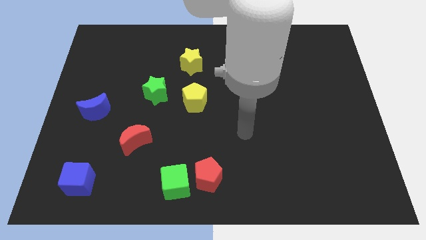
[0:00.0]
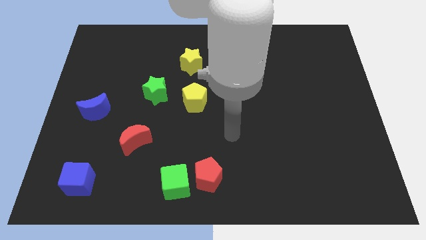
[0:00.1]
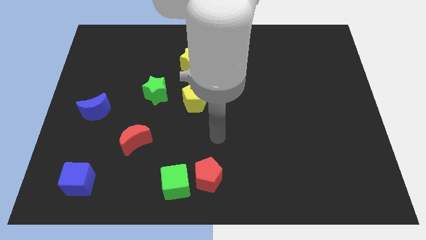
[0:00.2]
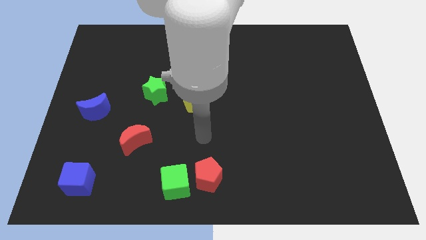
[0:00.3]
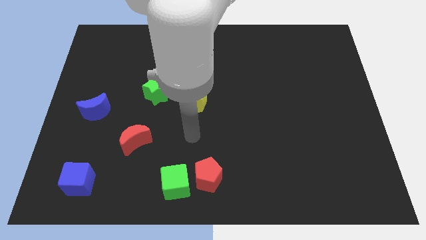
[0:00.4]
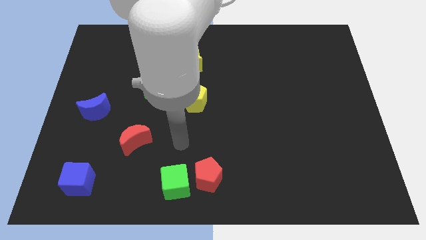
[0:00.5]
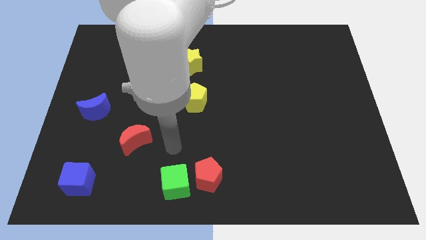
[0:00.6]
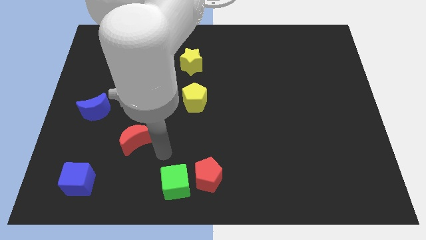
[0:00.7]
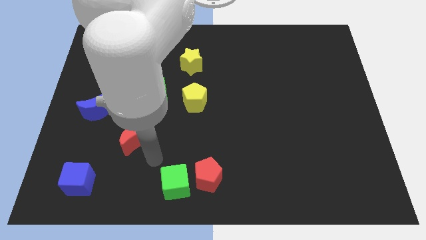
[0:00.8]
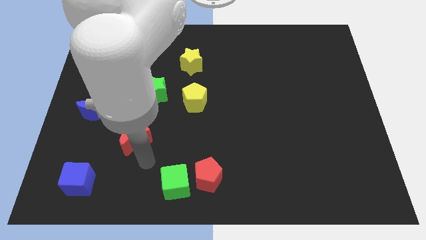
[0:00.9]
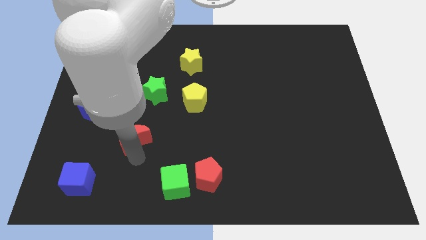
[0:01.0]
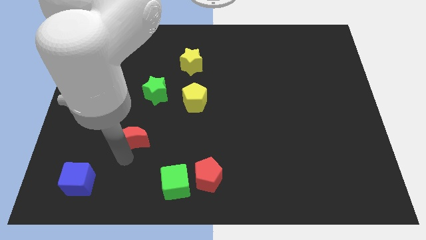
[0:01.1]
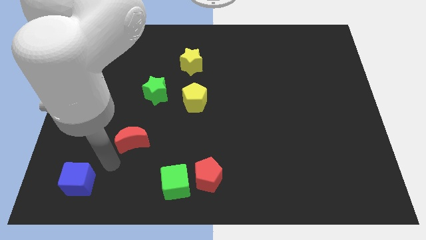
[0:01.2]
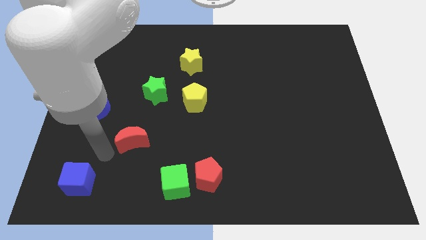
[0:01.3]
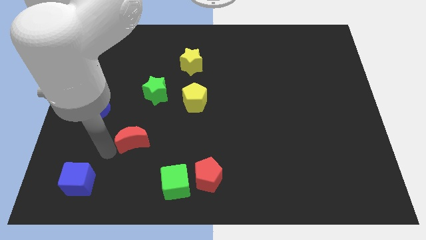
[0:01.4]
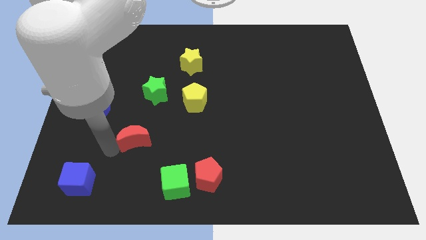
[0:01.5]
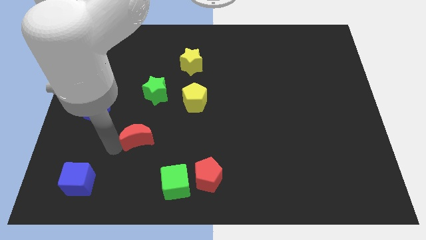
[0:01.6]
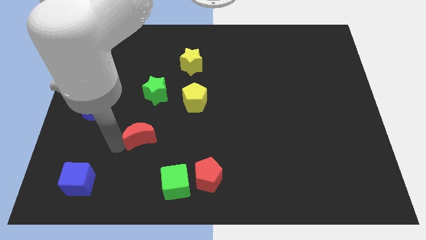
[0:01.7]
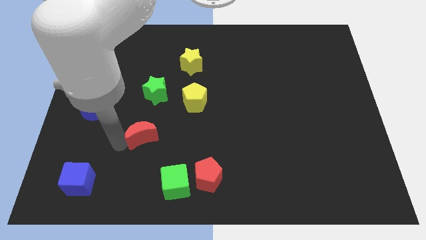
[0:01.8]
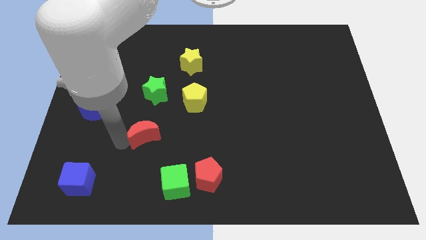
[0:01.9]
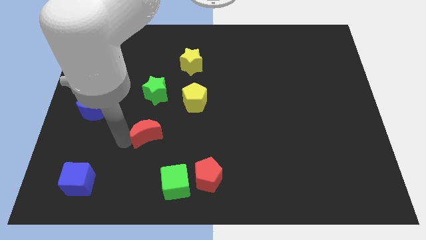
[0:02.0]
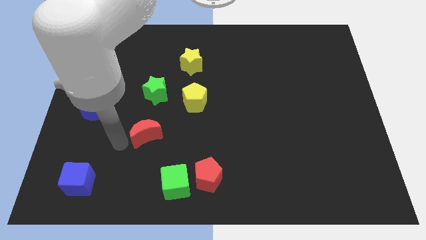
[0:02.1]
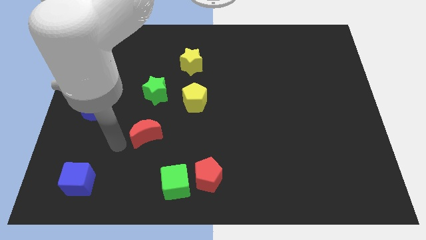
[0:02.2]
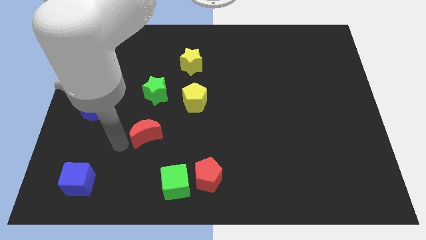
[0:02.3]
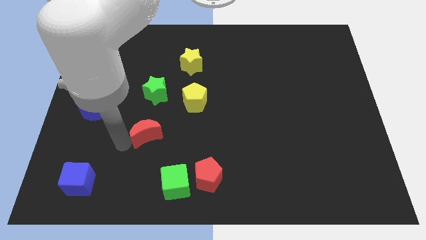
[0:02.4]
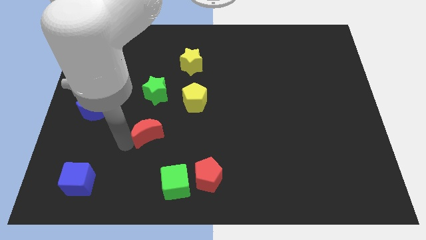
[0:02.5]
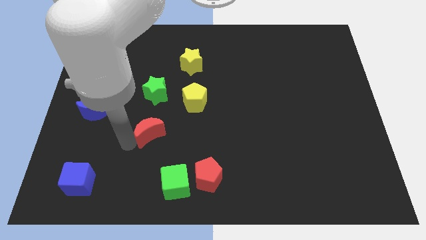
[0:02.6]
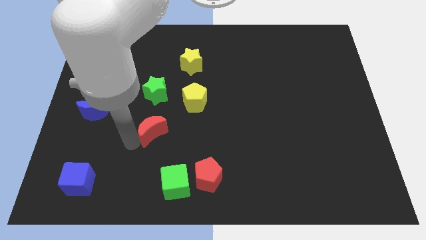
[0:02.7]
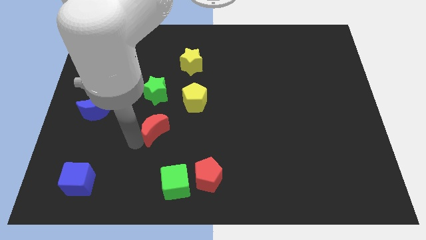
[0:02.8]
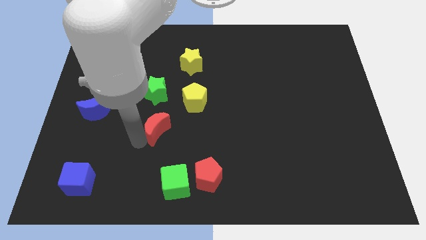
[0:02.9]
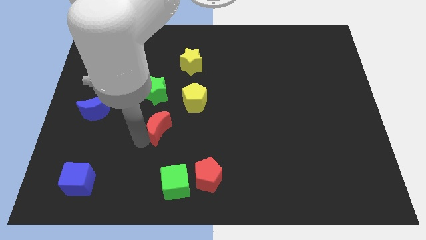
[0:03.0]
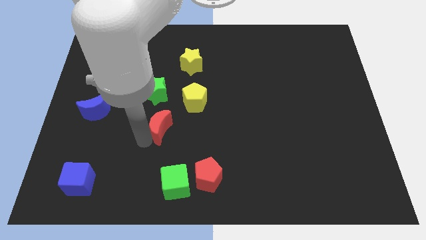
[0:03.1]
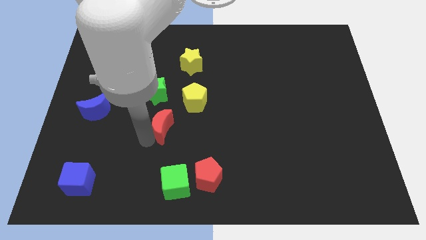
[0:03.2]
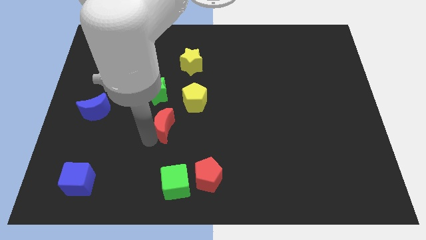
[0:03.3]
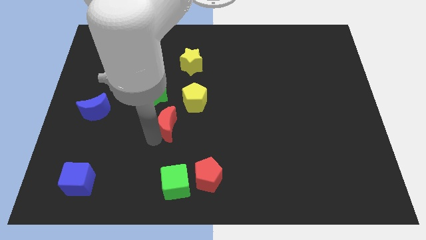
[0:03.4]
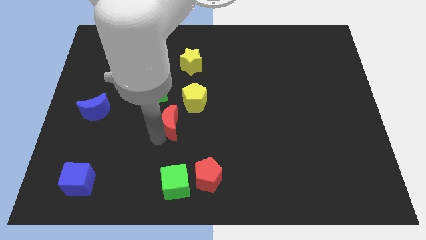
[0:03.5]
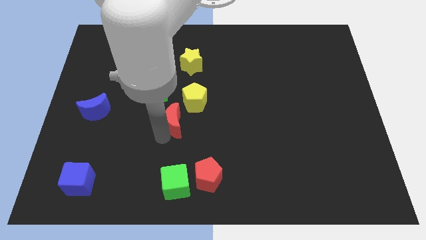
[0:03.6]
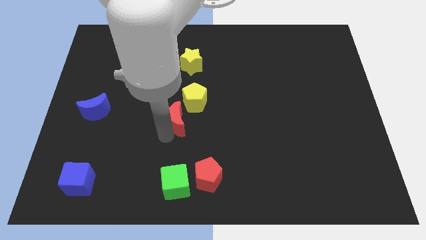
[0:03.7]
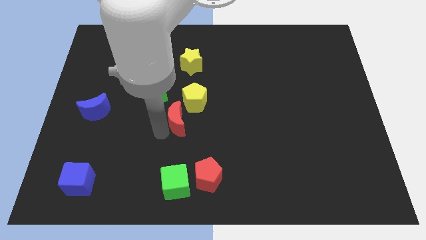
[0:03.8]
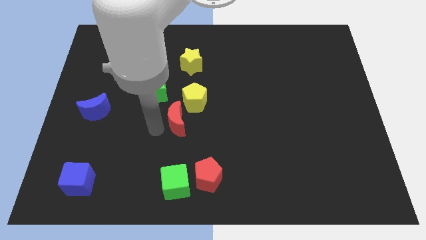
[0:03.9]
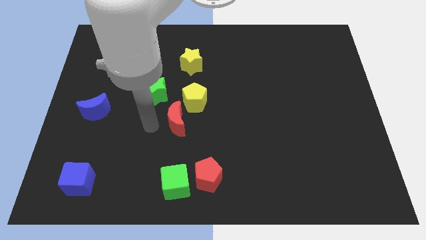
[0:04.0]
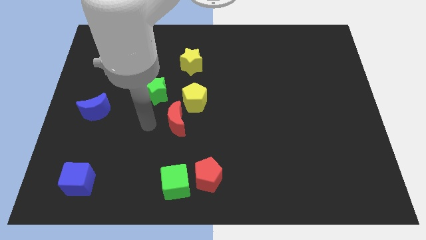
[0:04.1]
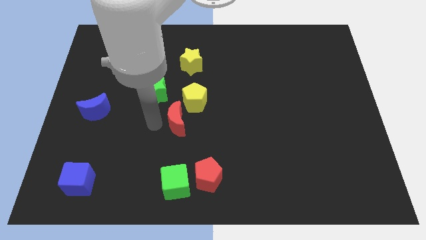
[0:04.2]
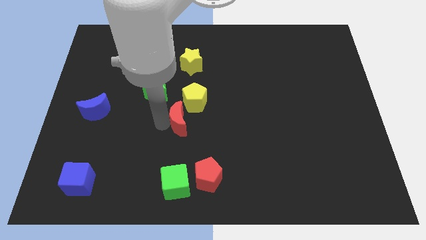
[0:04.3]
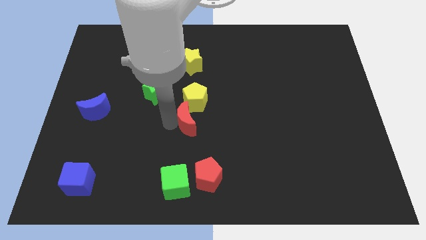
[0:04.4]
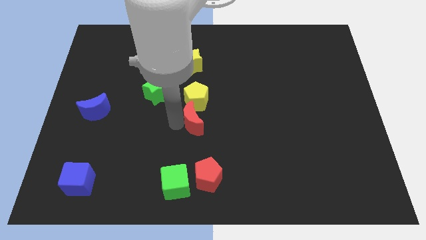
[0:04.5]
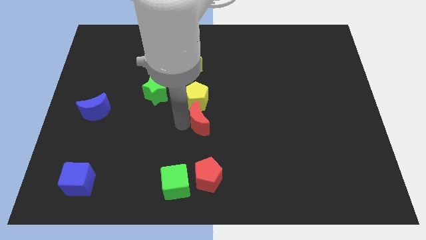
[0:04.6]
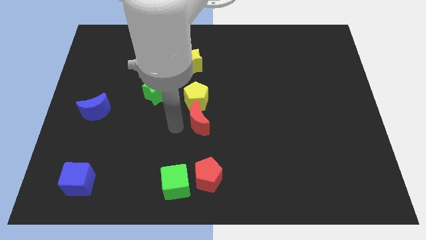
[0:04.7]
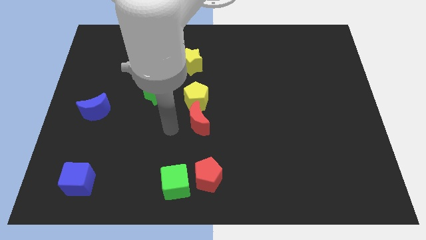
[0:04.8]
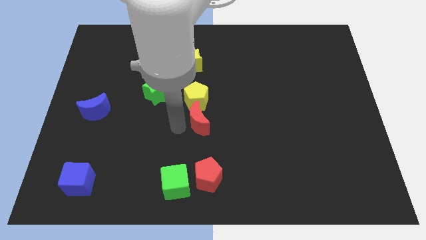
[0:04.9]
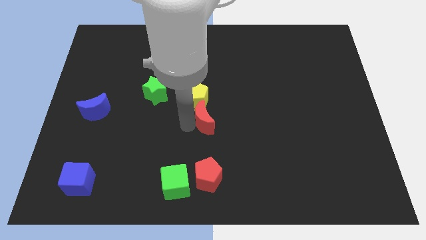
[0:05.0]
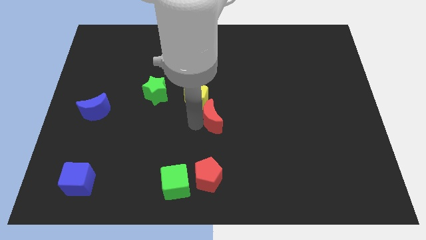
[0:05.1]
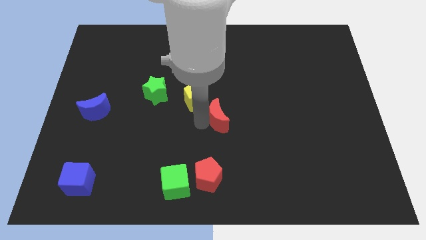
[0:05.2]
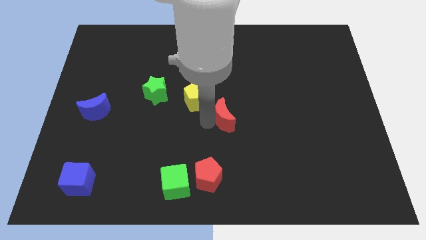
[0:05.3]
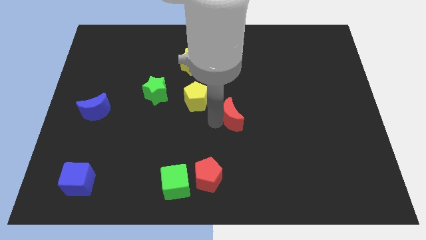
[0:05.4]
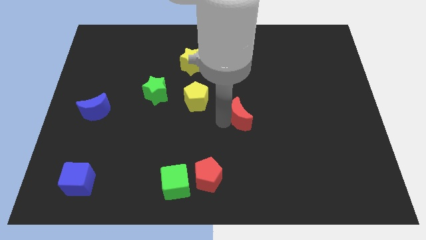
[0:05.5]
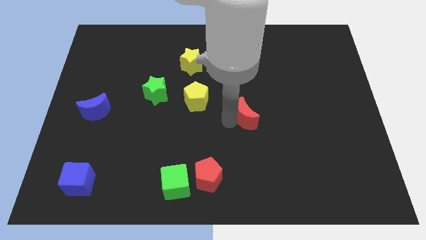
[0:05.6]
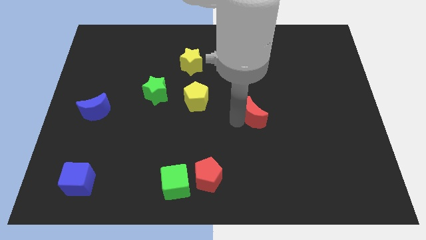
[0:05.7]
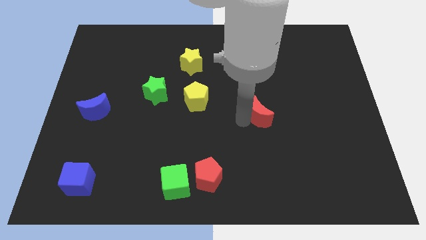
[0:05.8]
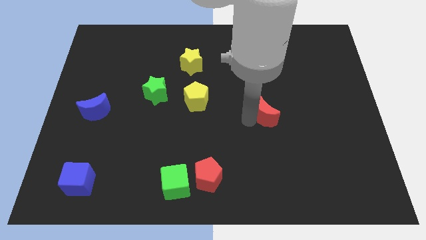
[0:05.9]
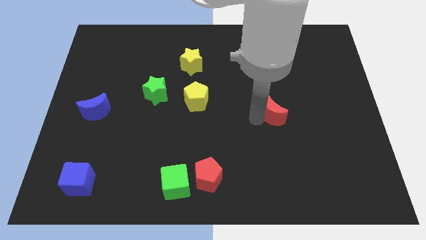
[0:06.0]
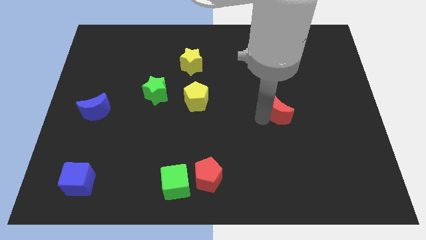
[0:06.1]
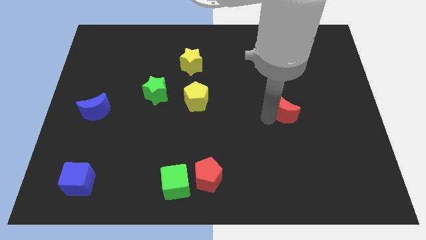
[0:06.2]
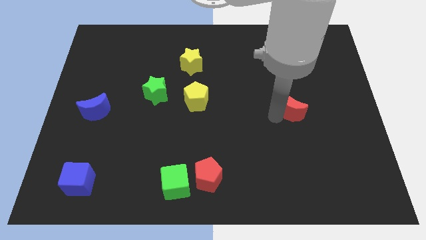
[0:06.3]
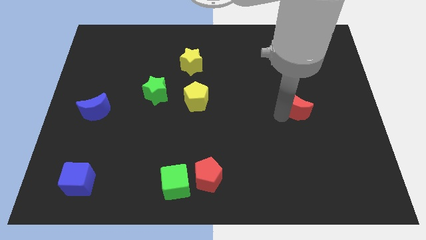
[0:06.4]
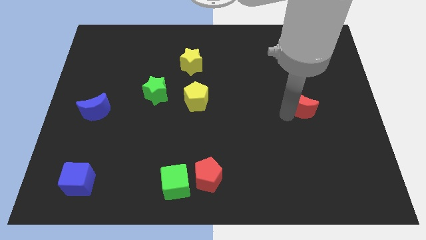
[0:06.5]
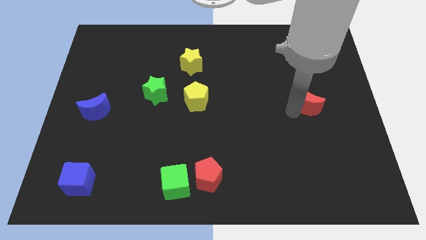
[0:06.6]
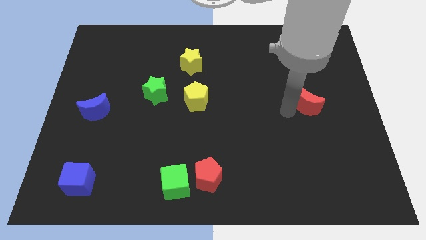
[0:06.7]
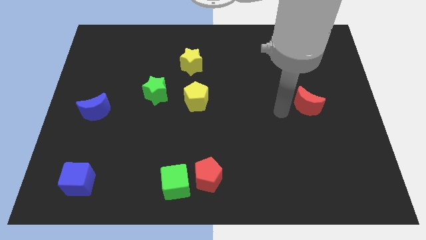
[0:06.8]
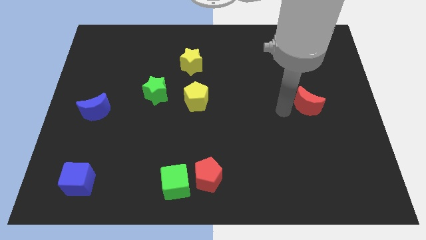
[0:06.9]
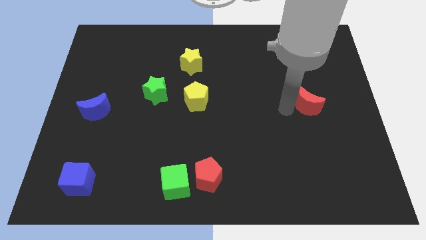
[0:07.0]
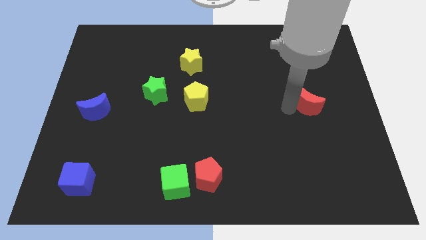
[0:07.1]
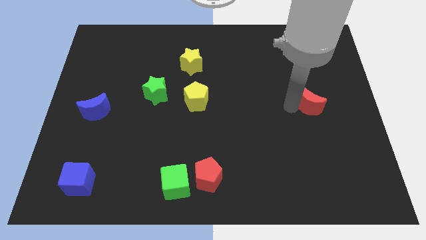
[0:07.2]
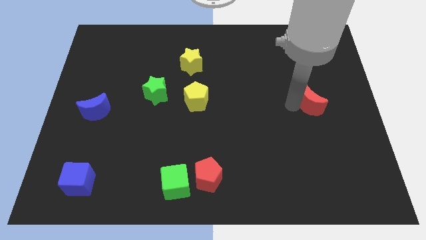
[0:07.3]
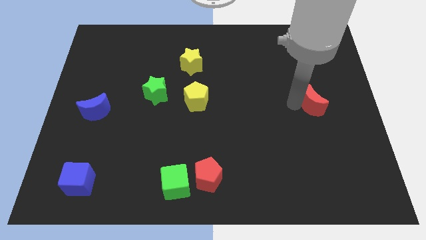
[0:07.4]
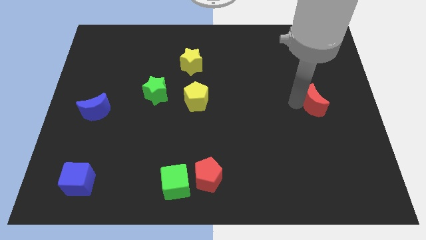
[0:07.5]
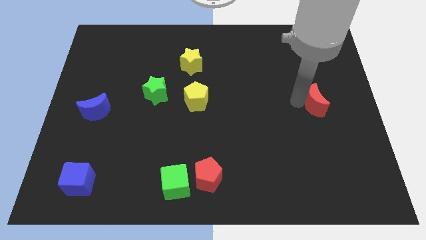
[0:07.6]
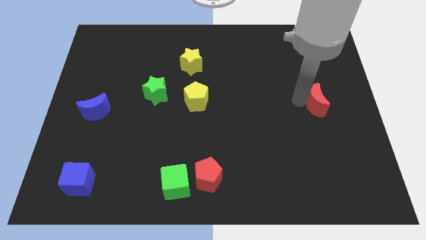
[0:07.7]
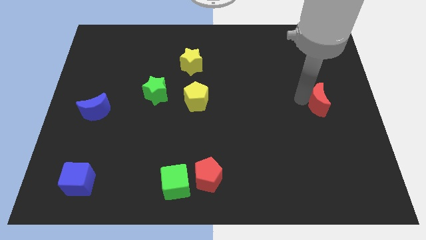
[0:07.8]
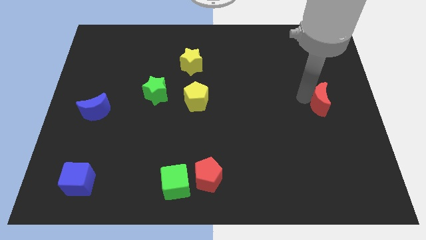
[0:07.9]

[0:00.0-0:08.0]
move the red moon to the right side
